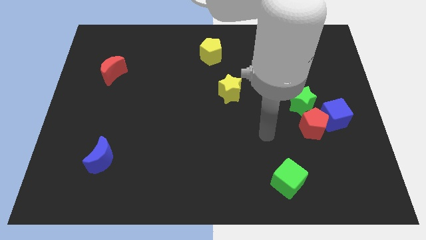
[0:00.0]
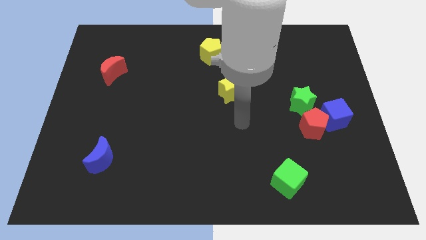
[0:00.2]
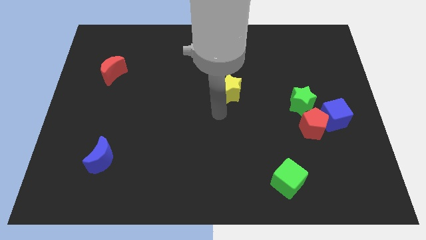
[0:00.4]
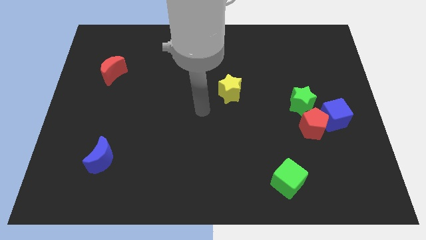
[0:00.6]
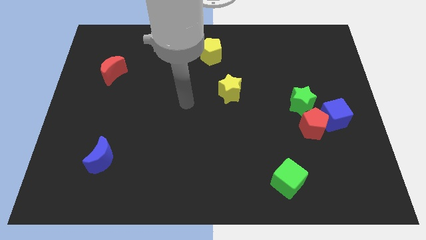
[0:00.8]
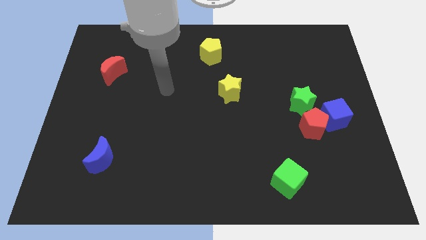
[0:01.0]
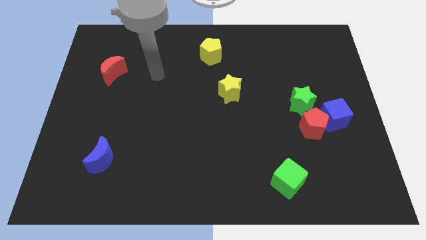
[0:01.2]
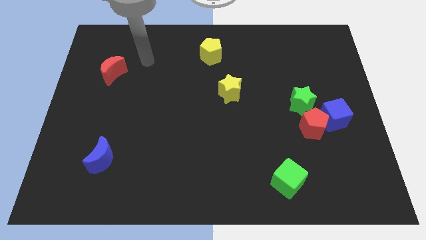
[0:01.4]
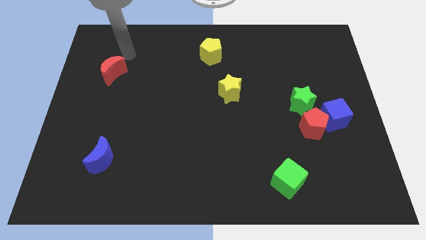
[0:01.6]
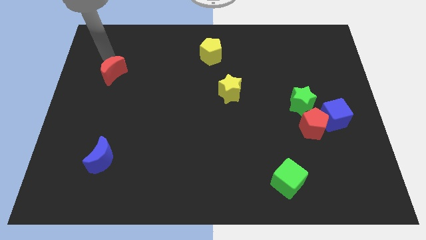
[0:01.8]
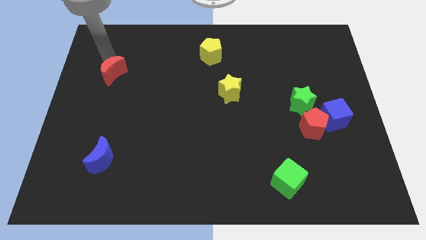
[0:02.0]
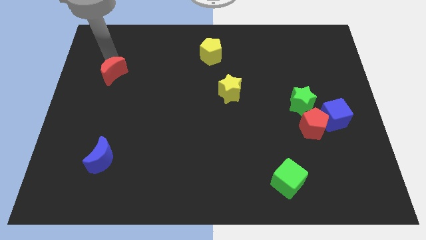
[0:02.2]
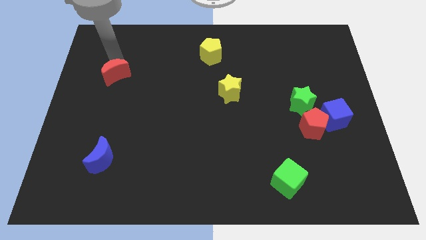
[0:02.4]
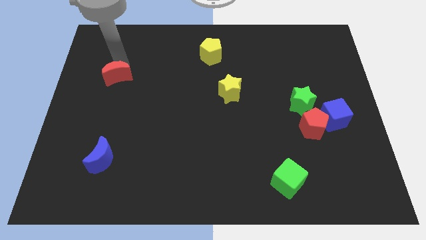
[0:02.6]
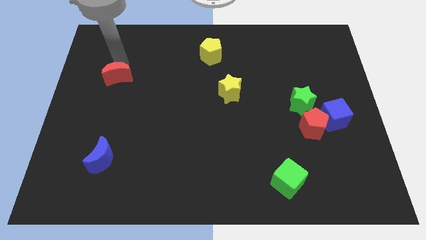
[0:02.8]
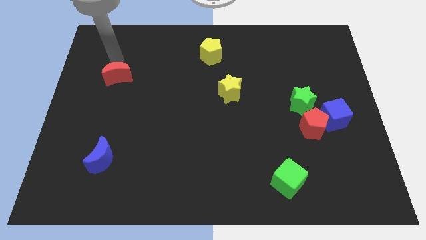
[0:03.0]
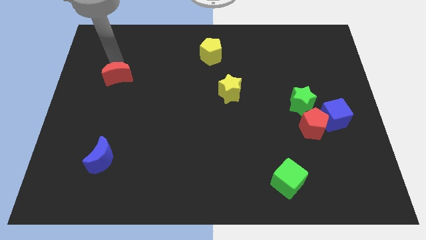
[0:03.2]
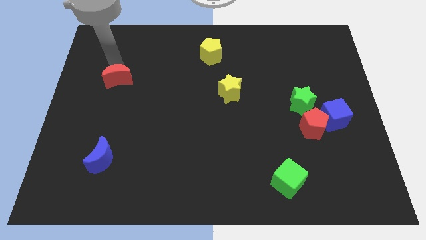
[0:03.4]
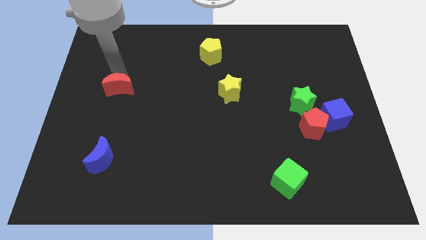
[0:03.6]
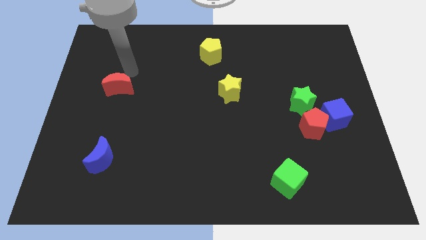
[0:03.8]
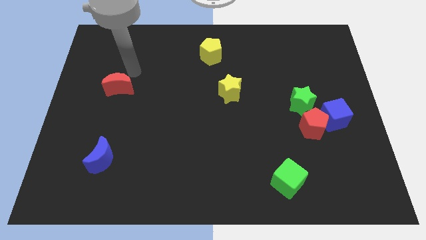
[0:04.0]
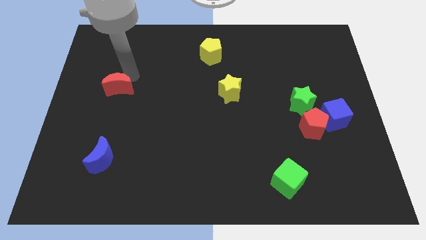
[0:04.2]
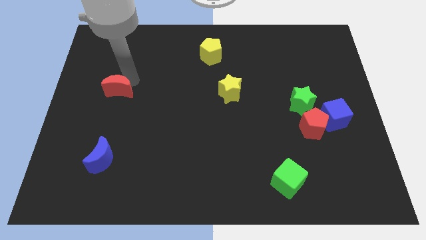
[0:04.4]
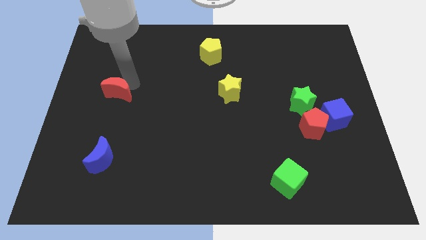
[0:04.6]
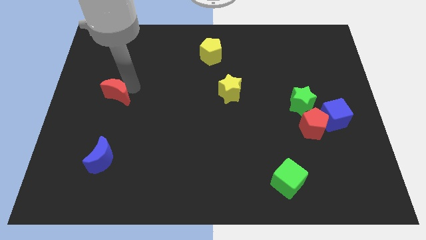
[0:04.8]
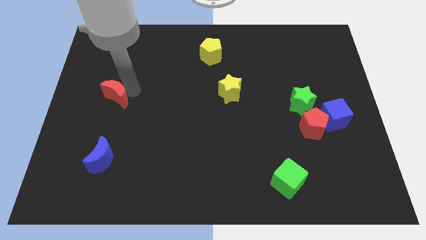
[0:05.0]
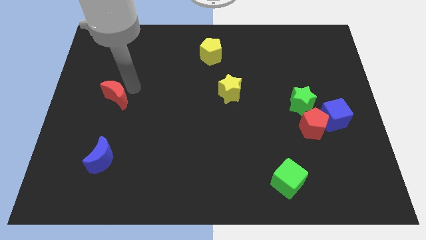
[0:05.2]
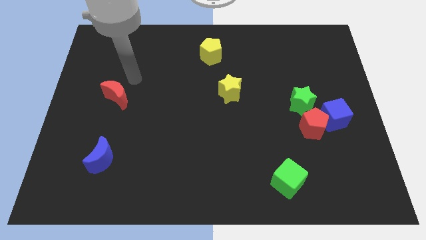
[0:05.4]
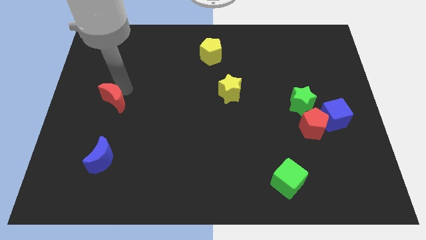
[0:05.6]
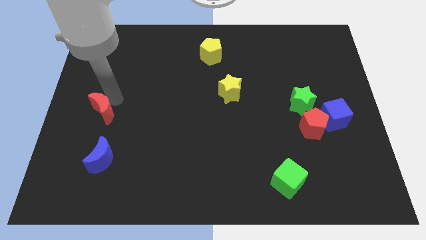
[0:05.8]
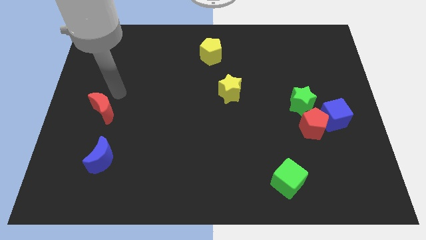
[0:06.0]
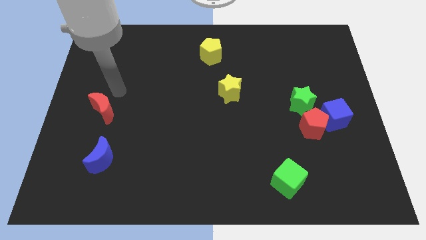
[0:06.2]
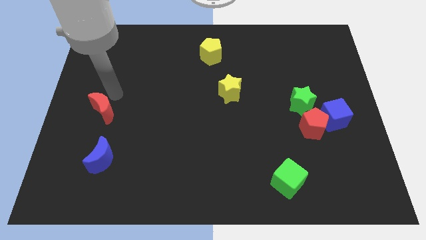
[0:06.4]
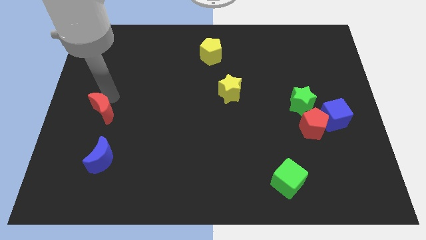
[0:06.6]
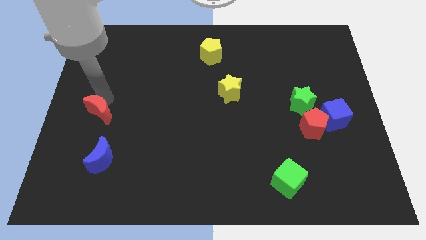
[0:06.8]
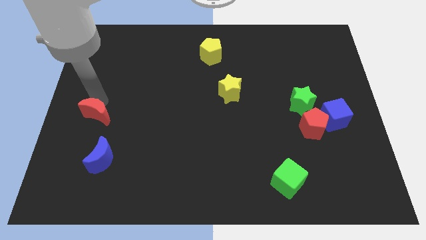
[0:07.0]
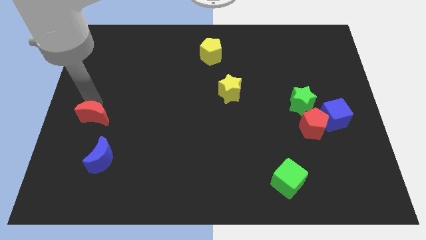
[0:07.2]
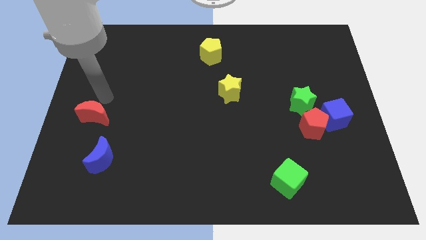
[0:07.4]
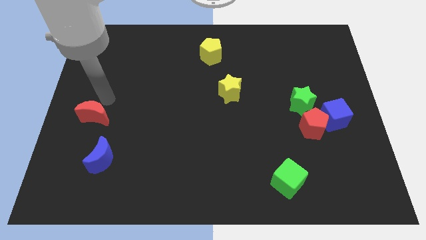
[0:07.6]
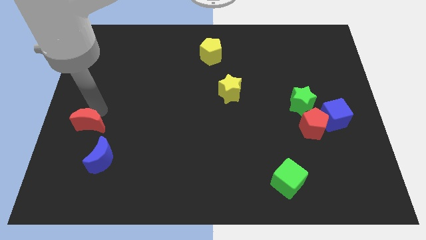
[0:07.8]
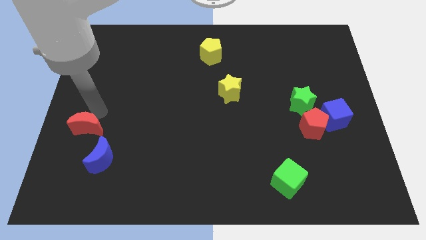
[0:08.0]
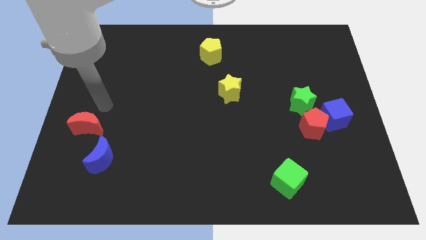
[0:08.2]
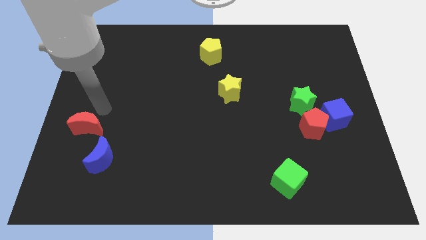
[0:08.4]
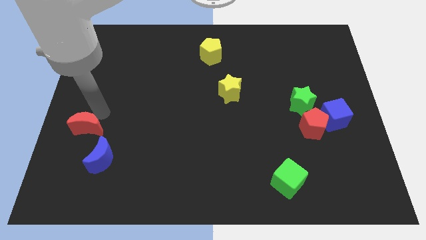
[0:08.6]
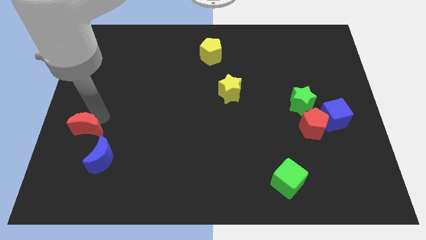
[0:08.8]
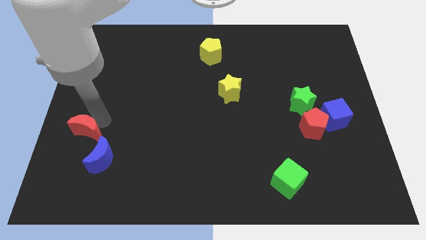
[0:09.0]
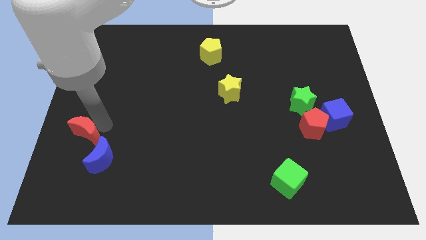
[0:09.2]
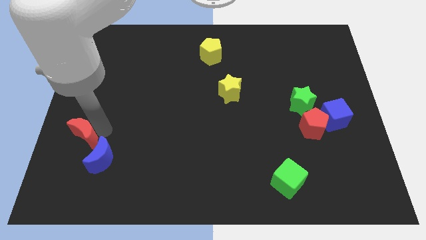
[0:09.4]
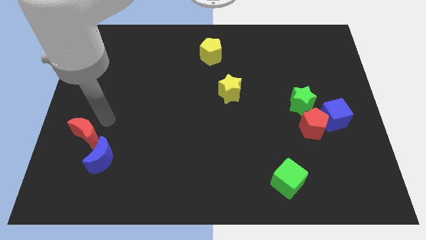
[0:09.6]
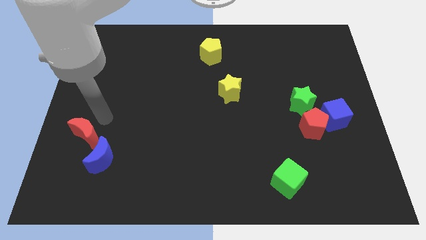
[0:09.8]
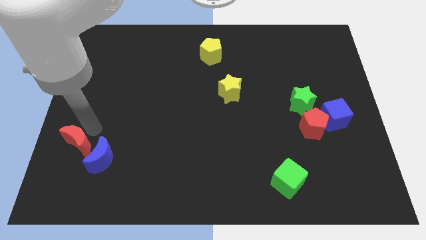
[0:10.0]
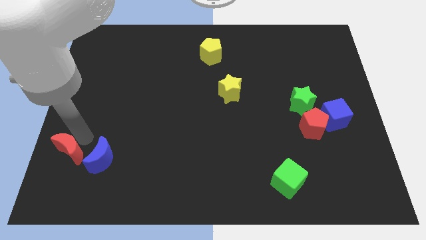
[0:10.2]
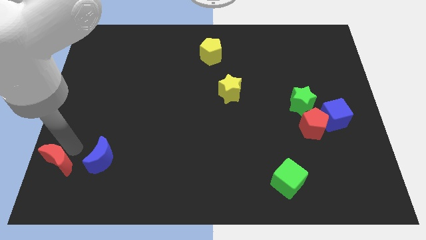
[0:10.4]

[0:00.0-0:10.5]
put the red moon to the bottom left
